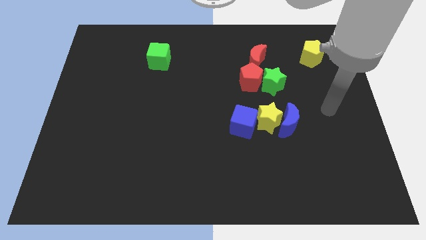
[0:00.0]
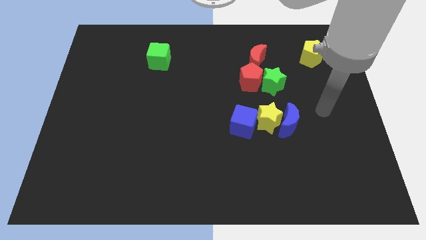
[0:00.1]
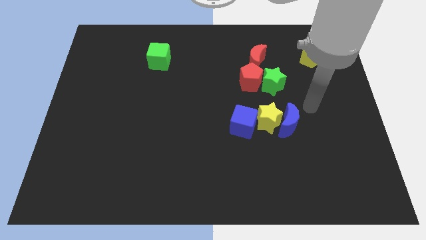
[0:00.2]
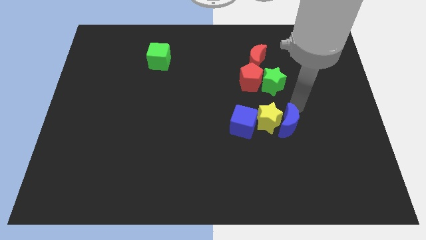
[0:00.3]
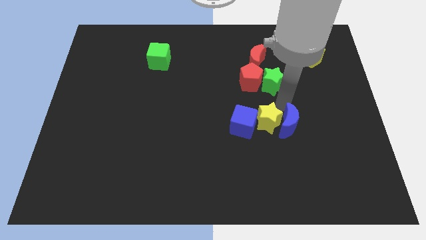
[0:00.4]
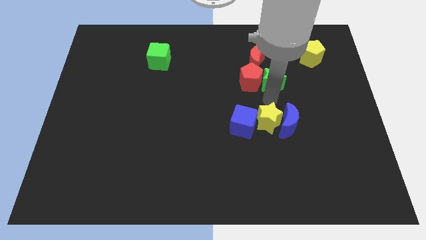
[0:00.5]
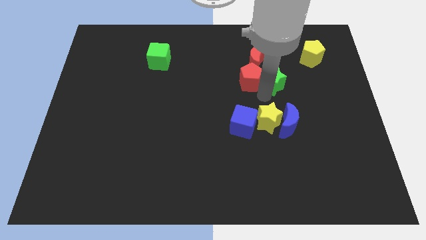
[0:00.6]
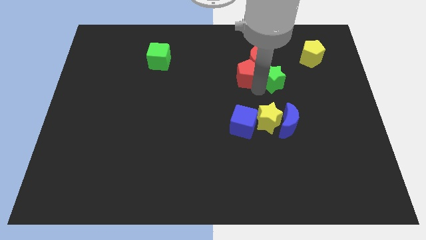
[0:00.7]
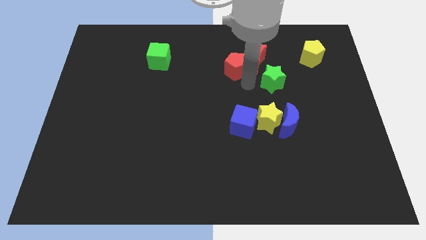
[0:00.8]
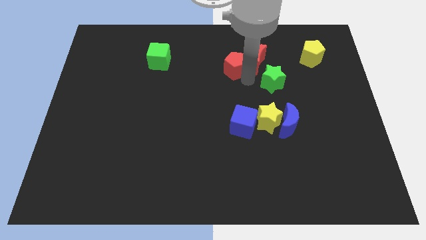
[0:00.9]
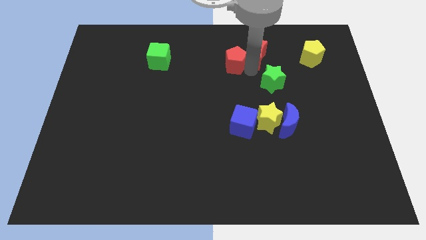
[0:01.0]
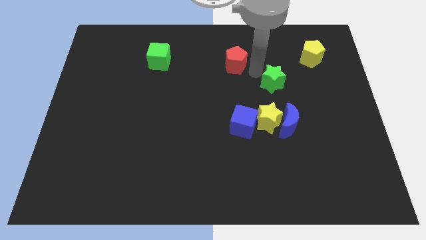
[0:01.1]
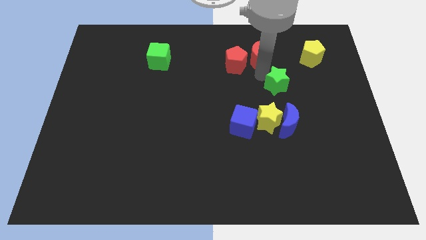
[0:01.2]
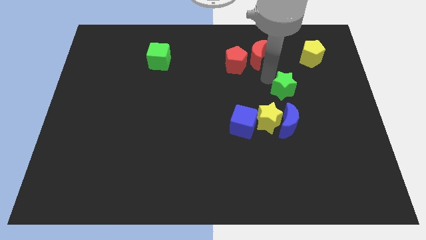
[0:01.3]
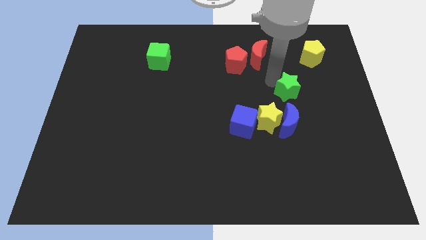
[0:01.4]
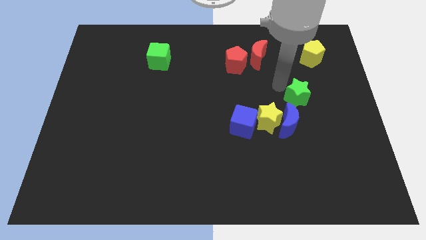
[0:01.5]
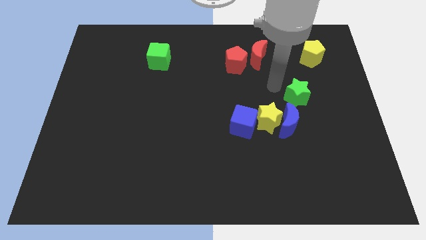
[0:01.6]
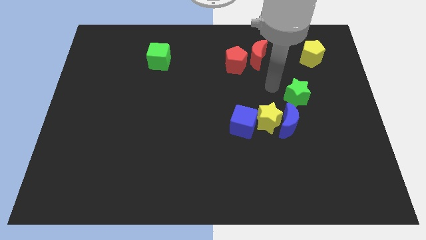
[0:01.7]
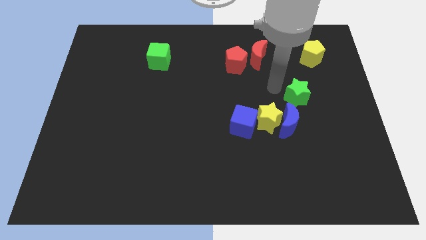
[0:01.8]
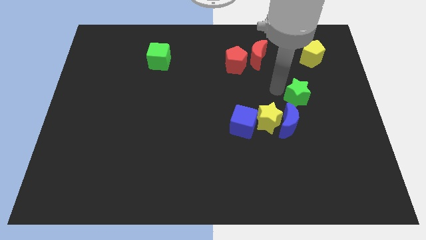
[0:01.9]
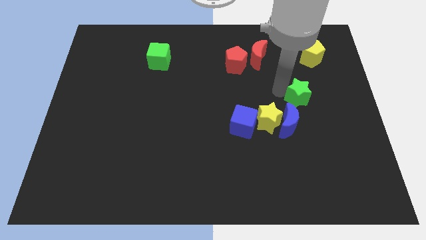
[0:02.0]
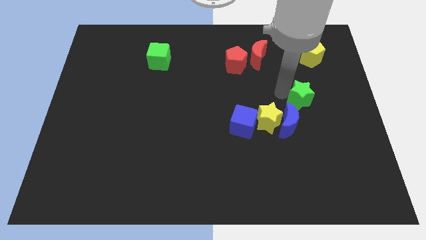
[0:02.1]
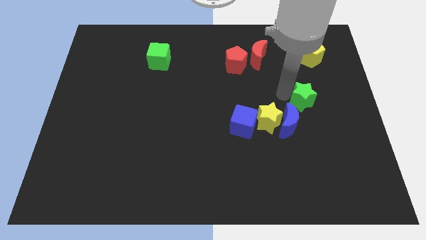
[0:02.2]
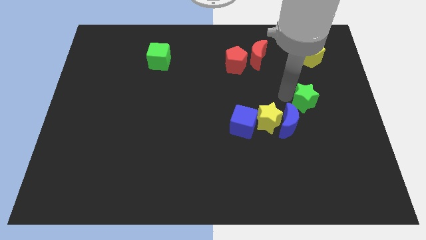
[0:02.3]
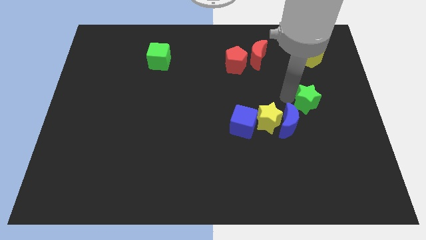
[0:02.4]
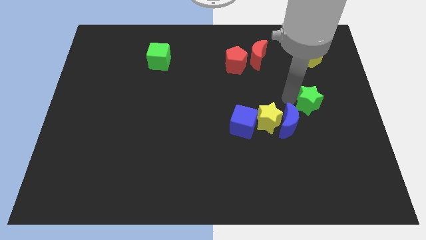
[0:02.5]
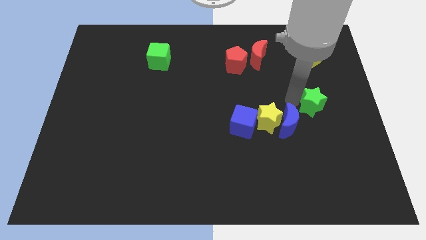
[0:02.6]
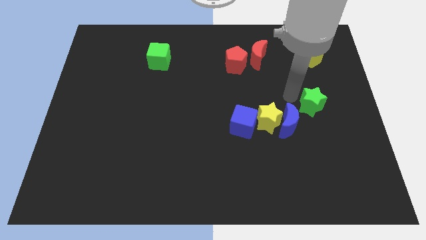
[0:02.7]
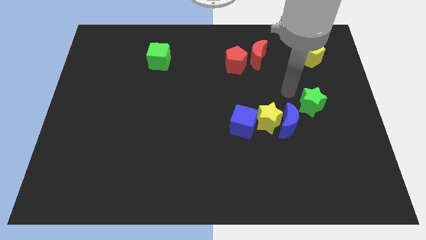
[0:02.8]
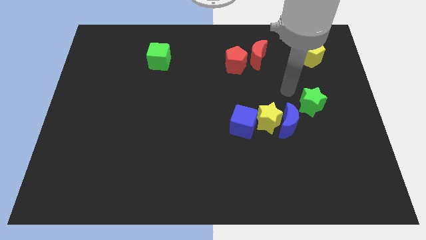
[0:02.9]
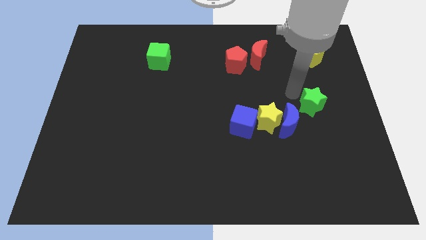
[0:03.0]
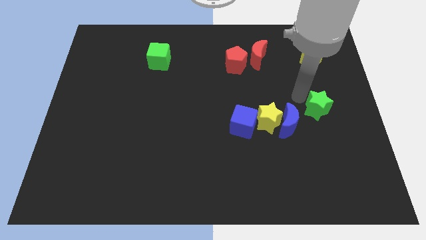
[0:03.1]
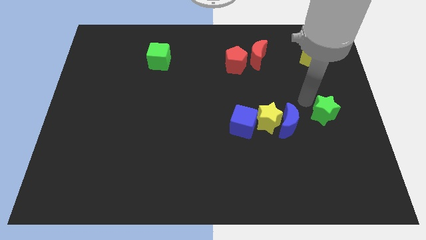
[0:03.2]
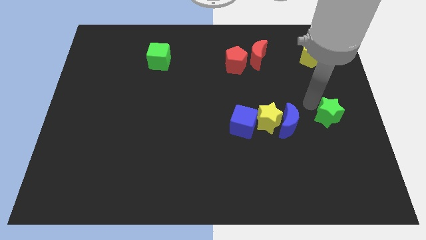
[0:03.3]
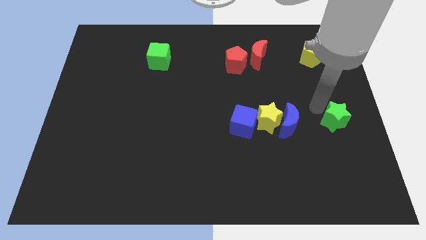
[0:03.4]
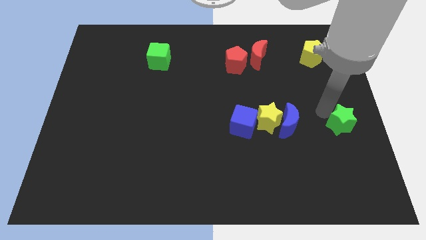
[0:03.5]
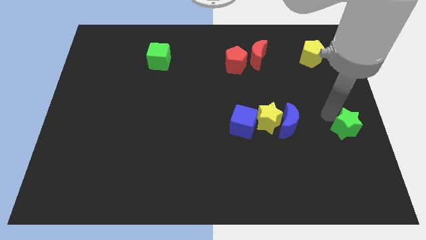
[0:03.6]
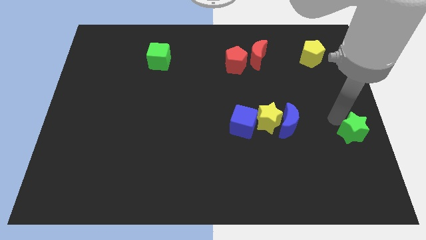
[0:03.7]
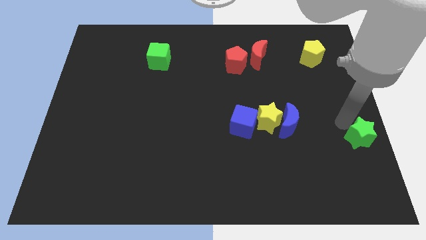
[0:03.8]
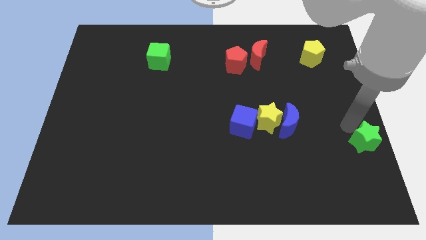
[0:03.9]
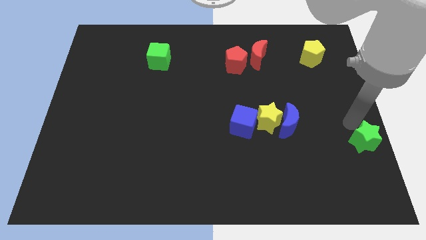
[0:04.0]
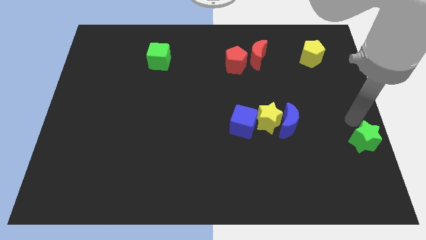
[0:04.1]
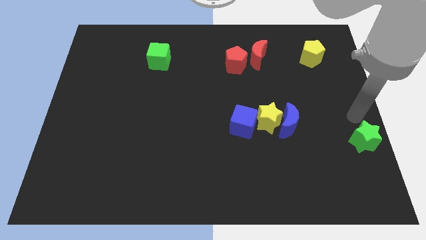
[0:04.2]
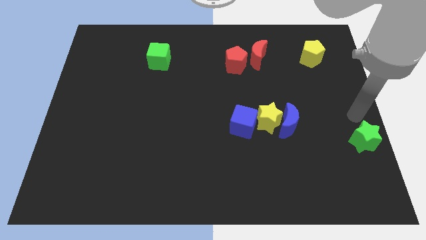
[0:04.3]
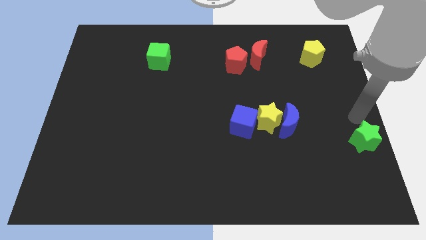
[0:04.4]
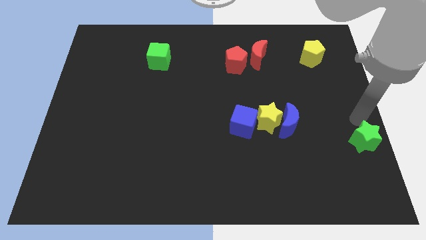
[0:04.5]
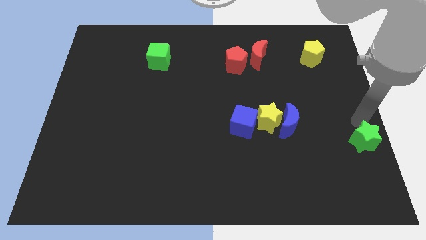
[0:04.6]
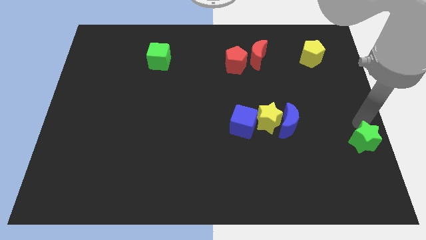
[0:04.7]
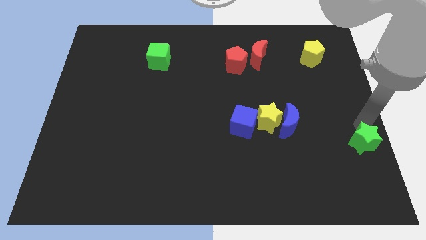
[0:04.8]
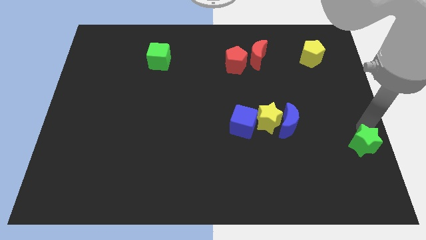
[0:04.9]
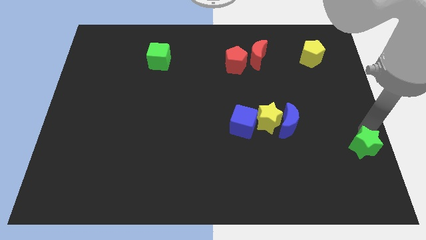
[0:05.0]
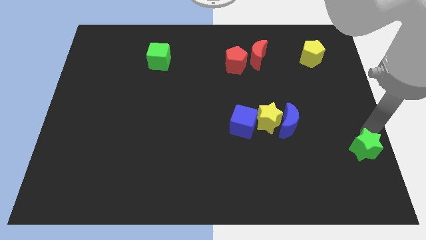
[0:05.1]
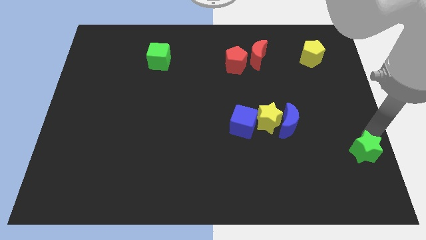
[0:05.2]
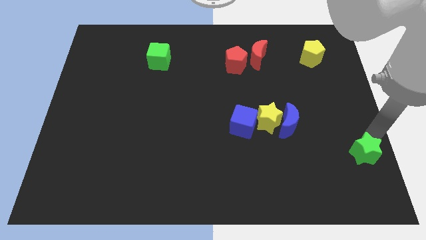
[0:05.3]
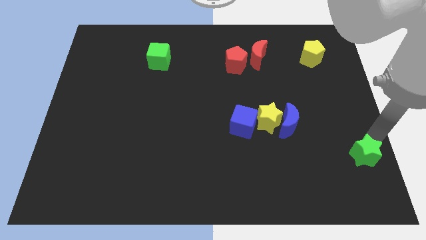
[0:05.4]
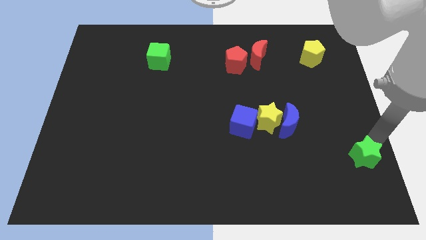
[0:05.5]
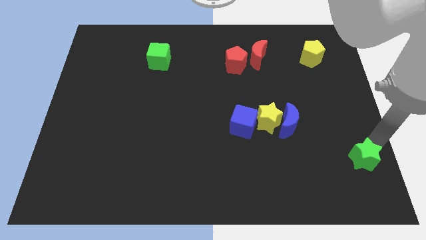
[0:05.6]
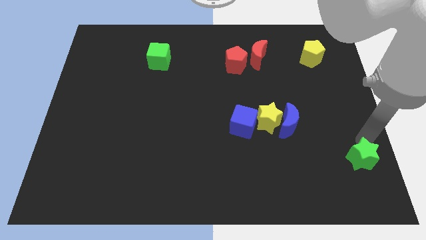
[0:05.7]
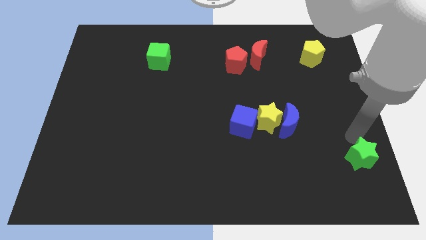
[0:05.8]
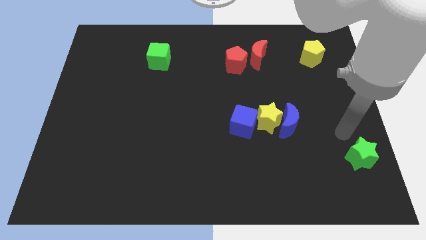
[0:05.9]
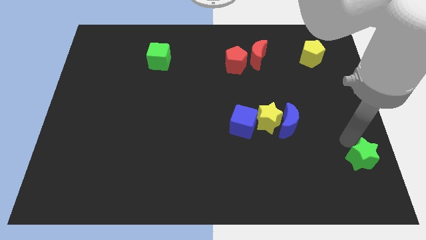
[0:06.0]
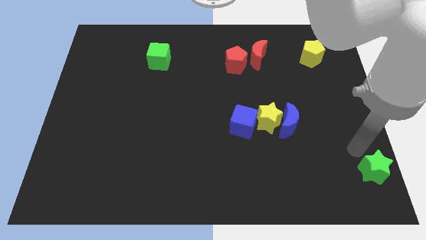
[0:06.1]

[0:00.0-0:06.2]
push the green star to the bottom right

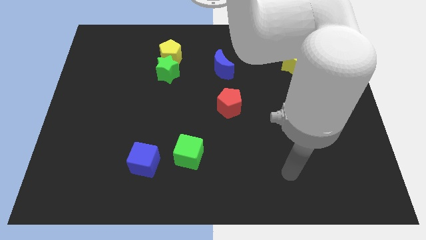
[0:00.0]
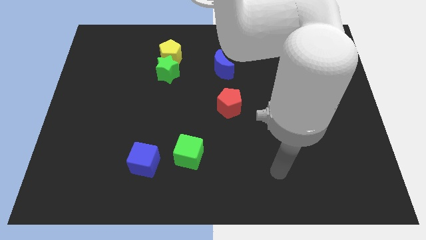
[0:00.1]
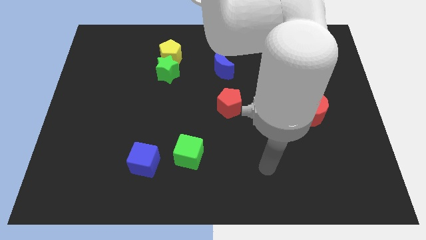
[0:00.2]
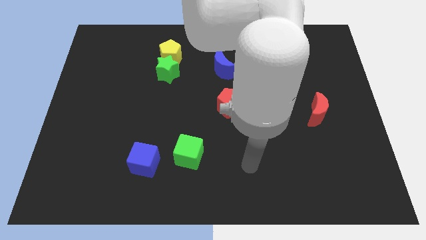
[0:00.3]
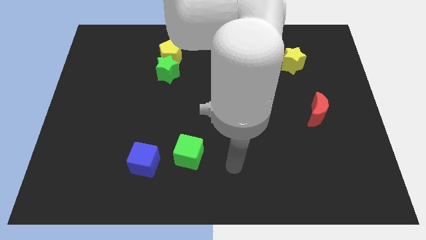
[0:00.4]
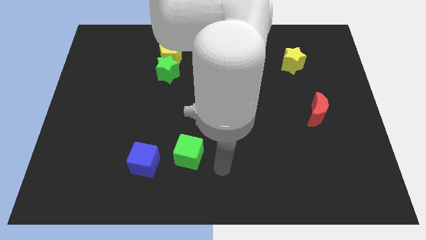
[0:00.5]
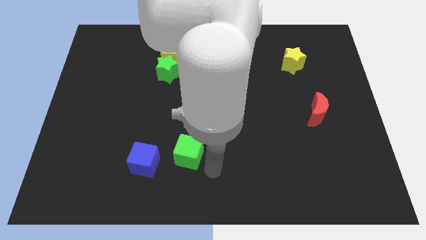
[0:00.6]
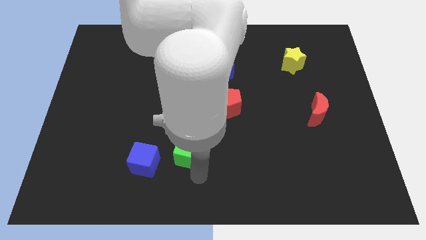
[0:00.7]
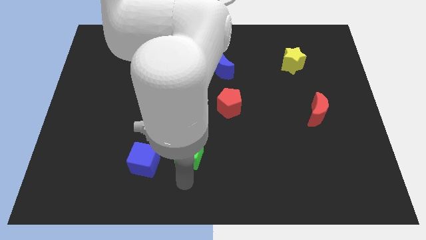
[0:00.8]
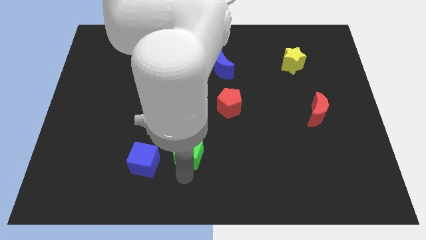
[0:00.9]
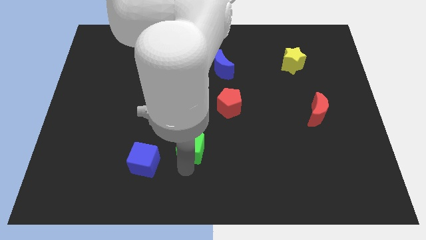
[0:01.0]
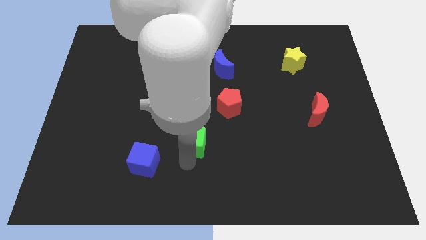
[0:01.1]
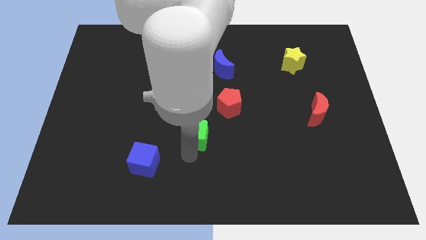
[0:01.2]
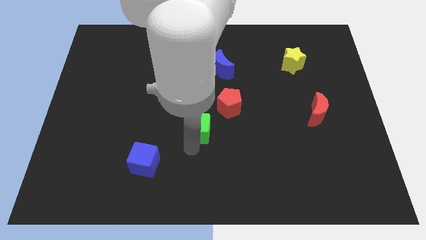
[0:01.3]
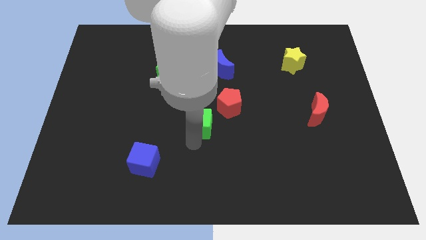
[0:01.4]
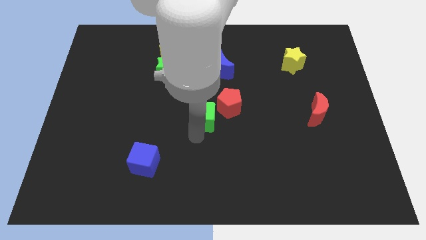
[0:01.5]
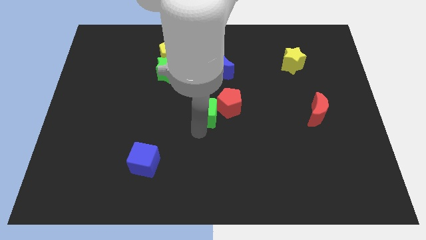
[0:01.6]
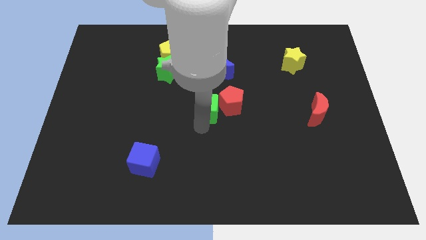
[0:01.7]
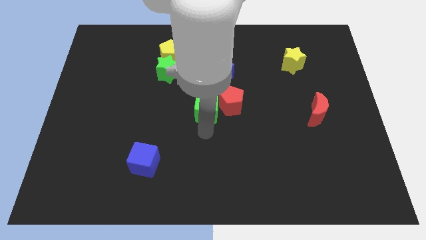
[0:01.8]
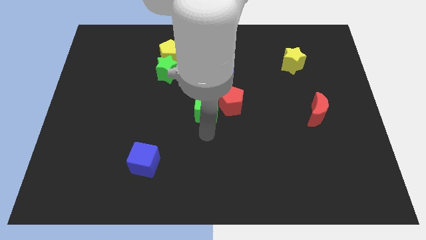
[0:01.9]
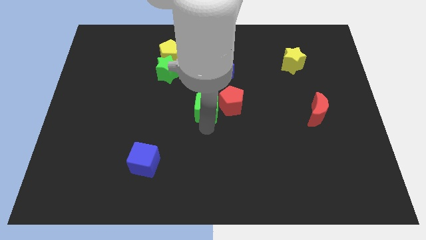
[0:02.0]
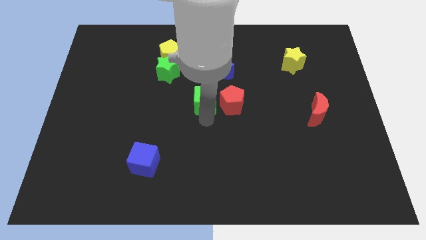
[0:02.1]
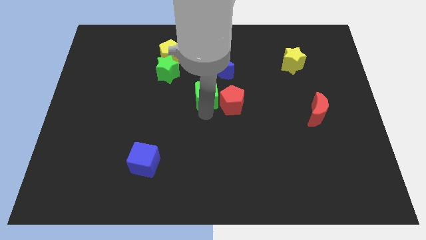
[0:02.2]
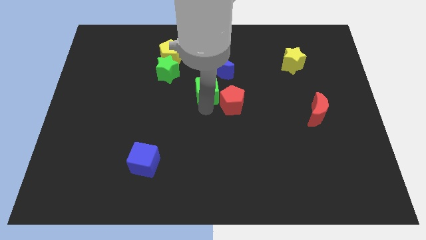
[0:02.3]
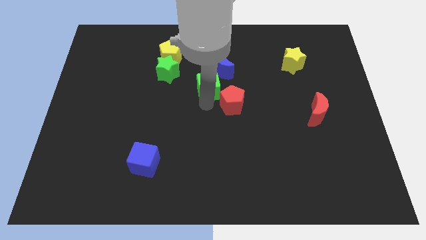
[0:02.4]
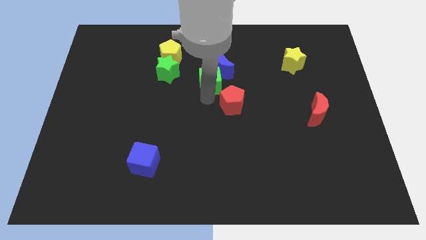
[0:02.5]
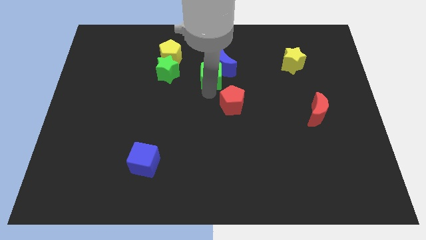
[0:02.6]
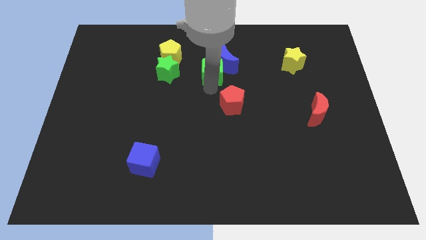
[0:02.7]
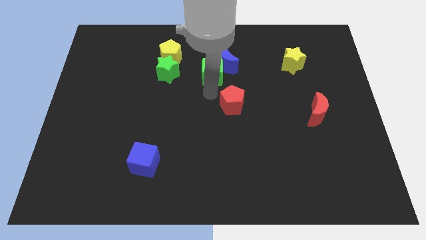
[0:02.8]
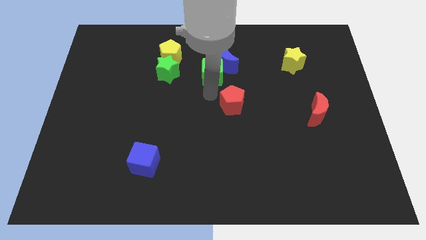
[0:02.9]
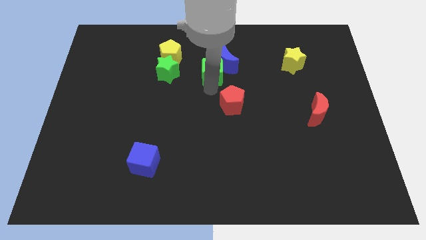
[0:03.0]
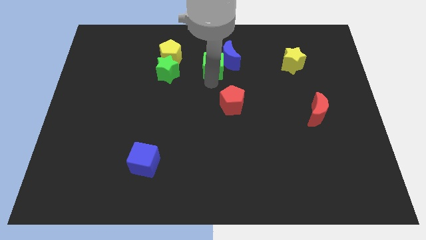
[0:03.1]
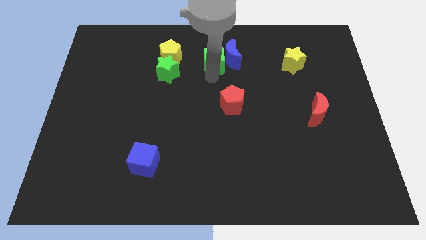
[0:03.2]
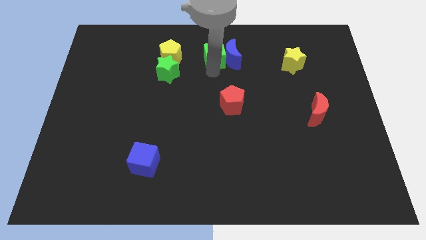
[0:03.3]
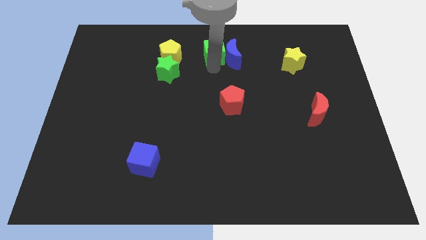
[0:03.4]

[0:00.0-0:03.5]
move the green cube to the towards your base
